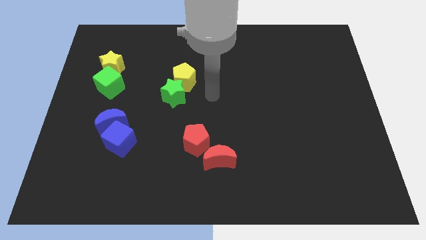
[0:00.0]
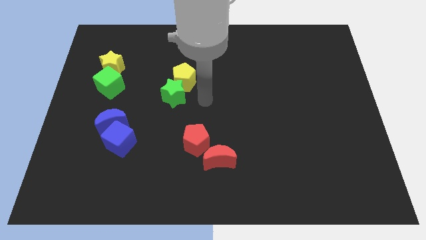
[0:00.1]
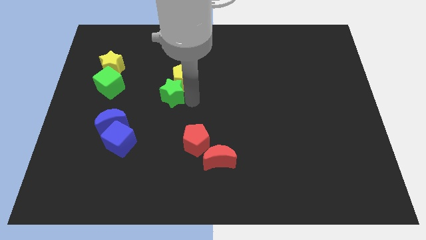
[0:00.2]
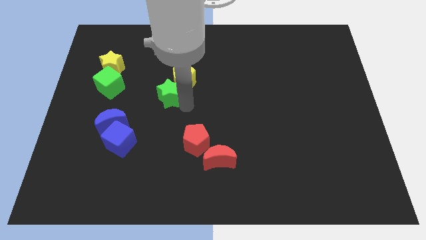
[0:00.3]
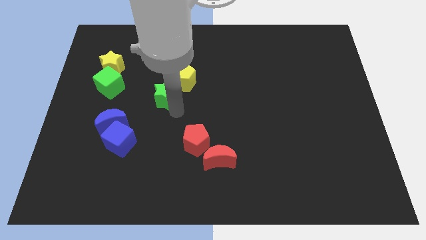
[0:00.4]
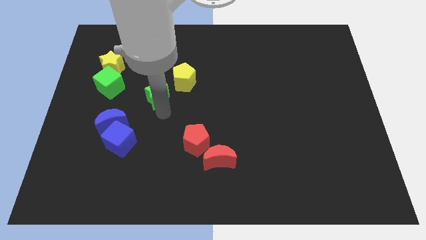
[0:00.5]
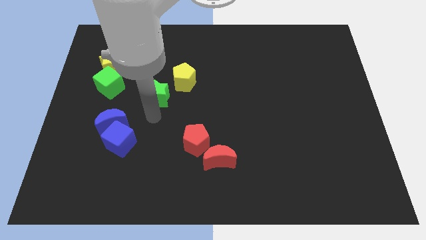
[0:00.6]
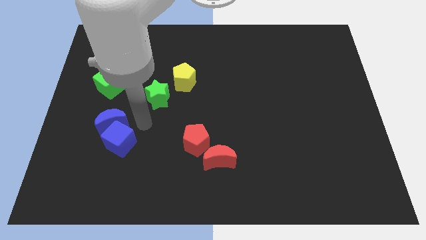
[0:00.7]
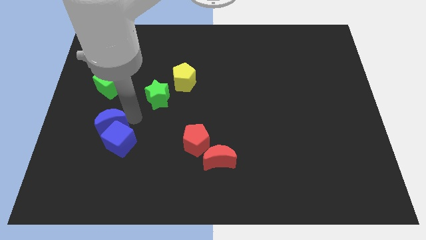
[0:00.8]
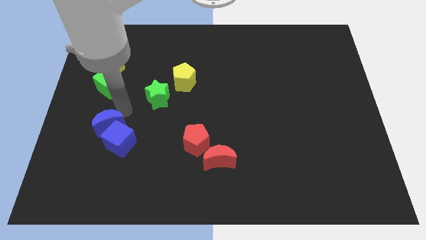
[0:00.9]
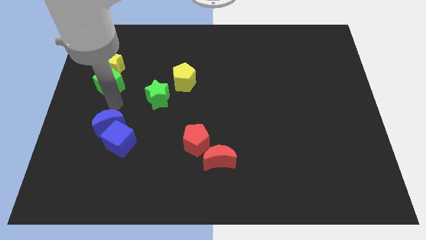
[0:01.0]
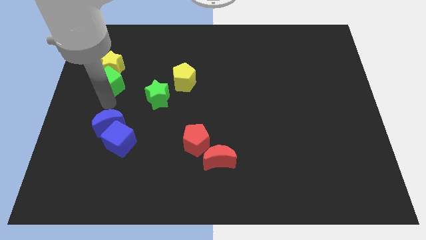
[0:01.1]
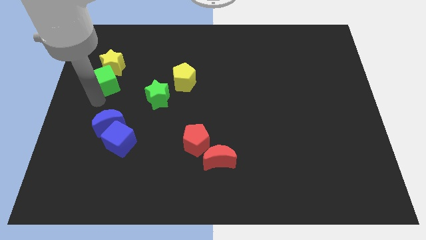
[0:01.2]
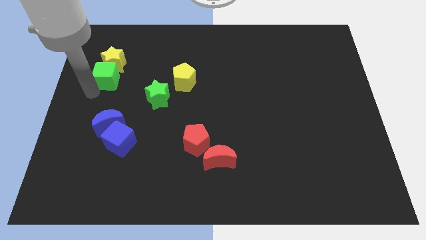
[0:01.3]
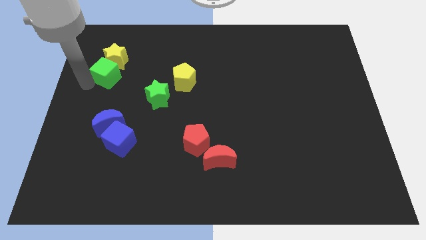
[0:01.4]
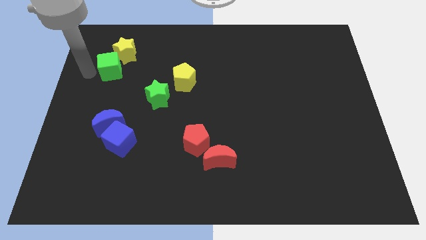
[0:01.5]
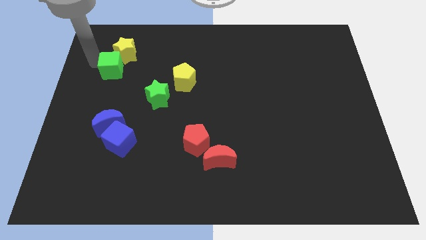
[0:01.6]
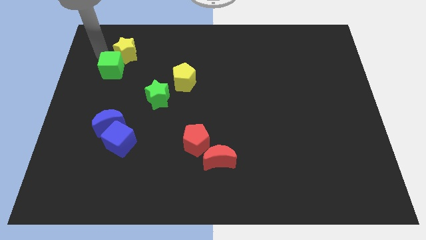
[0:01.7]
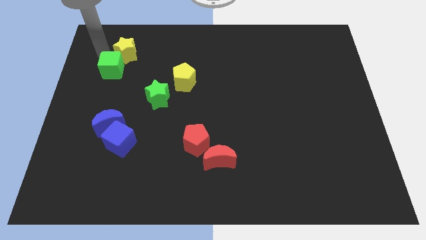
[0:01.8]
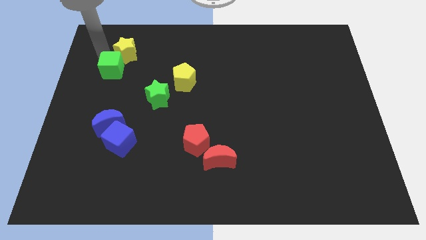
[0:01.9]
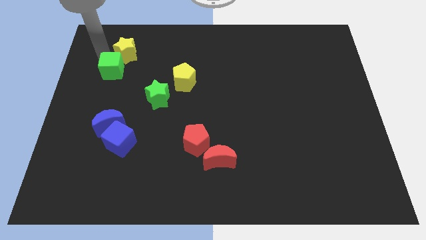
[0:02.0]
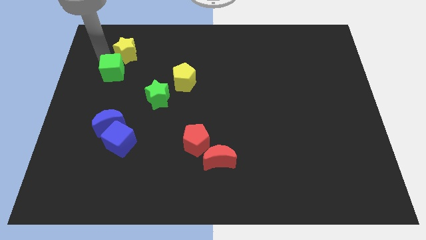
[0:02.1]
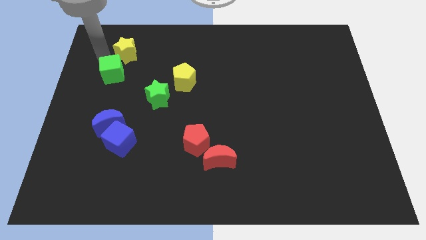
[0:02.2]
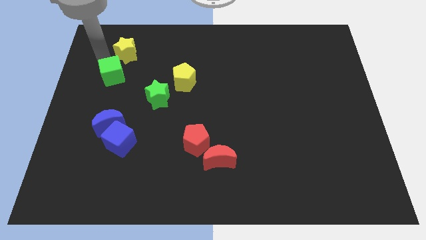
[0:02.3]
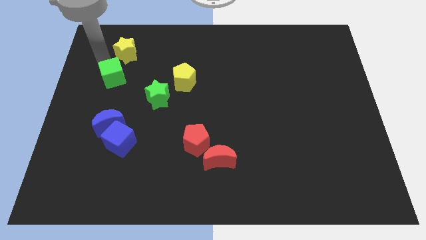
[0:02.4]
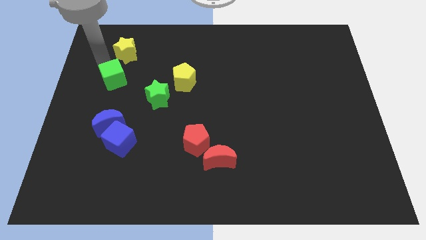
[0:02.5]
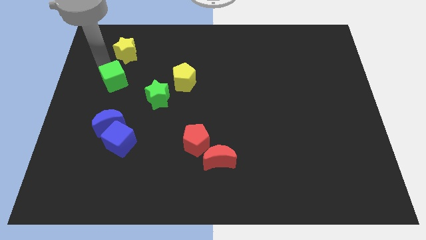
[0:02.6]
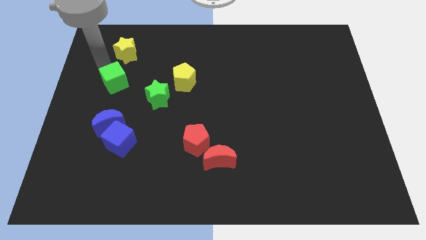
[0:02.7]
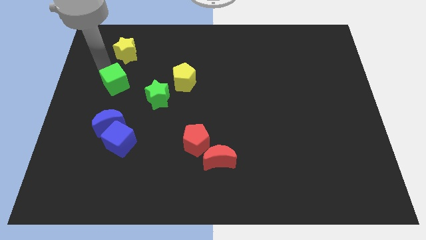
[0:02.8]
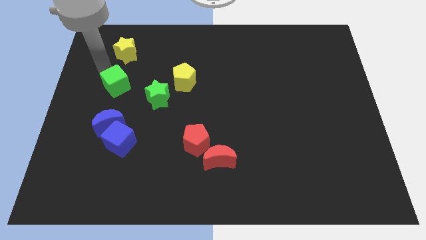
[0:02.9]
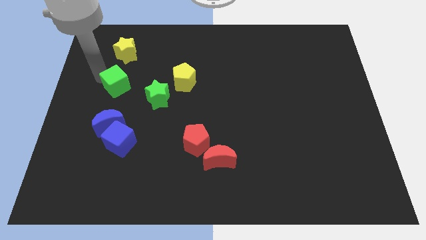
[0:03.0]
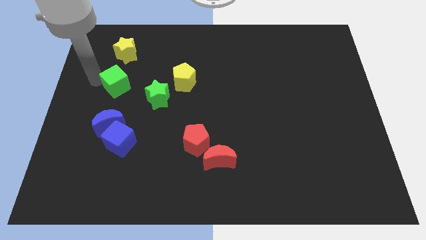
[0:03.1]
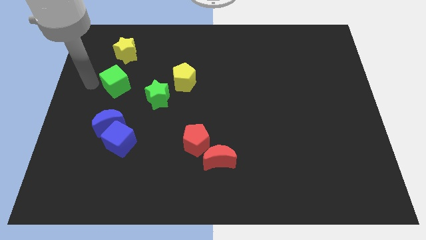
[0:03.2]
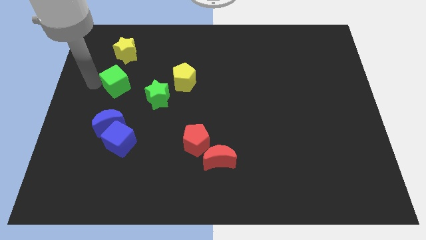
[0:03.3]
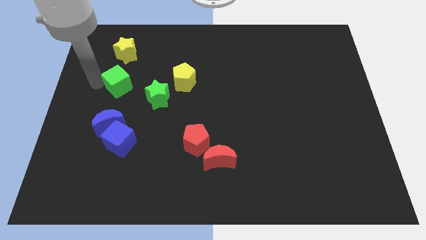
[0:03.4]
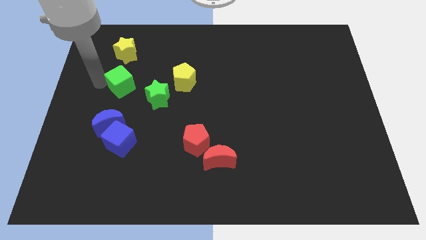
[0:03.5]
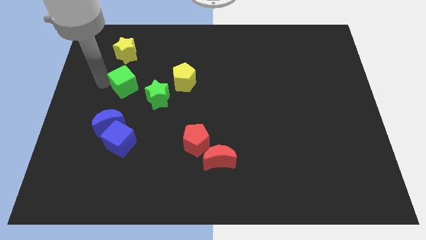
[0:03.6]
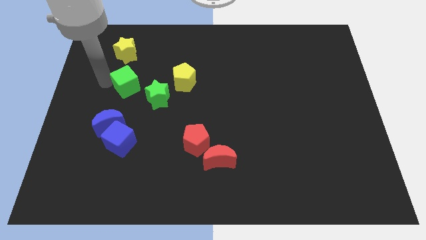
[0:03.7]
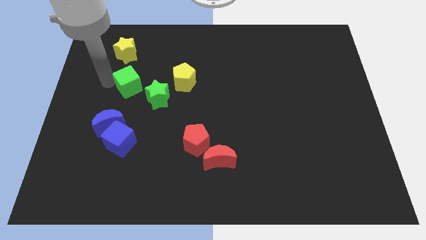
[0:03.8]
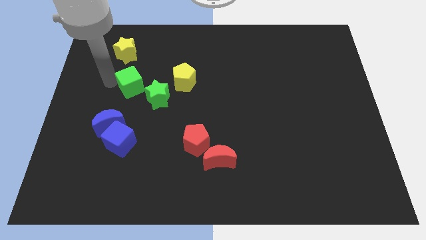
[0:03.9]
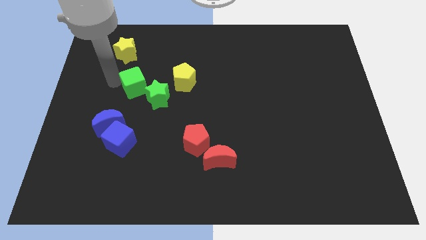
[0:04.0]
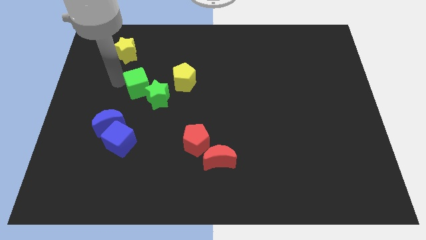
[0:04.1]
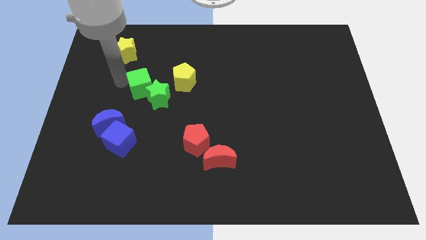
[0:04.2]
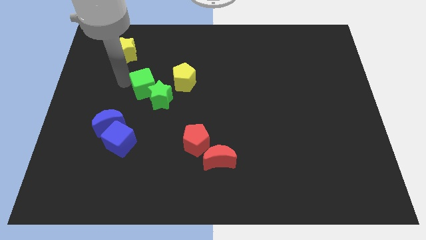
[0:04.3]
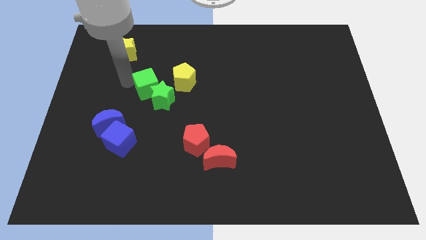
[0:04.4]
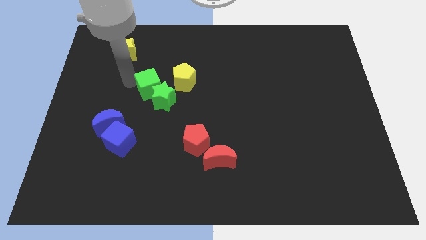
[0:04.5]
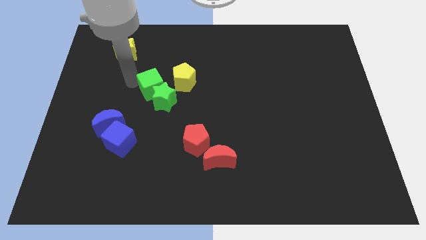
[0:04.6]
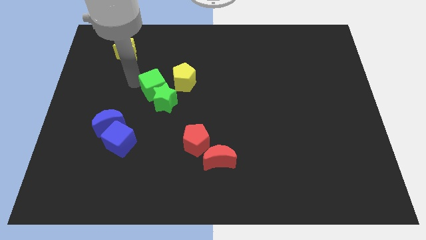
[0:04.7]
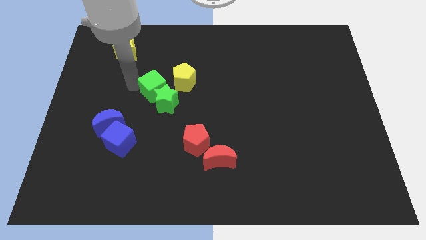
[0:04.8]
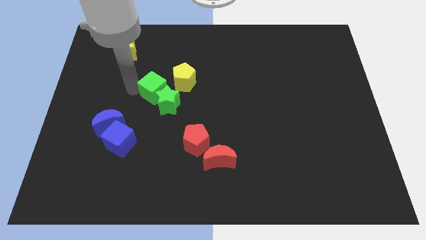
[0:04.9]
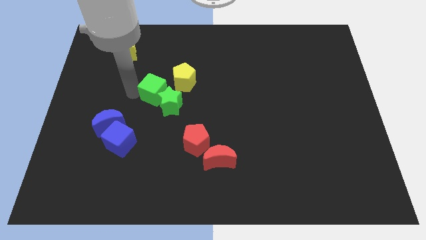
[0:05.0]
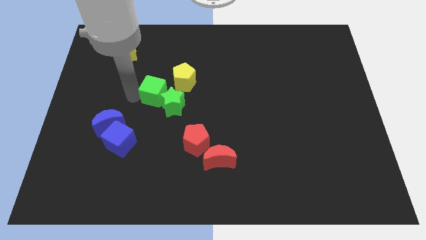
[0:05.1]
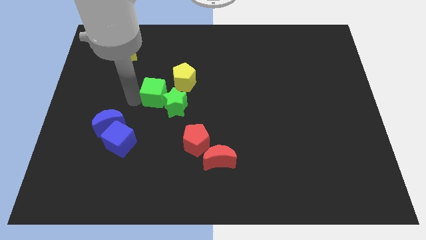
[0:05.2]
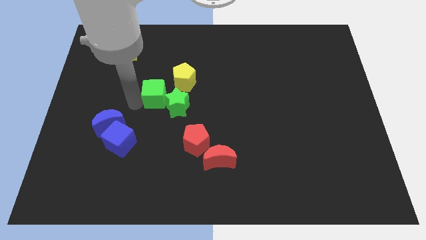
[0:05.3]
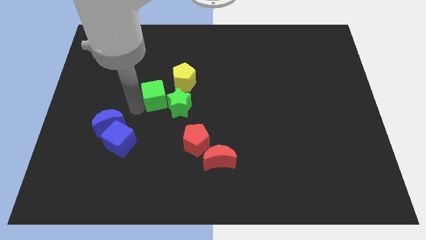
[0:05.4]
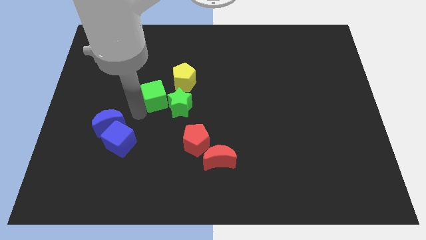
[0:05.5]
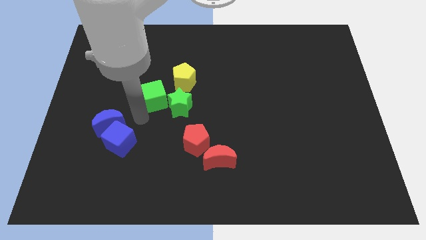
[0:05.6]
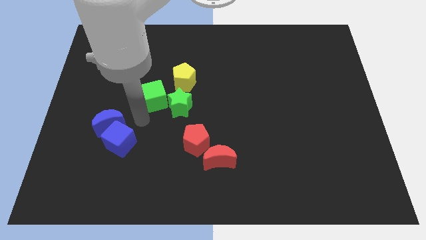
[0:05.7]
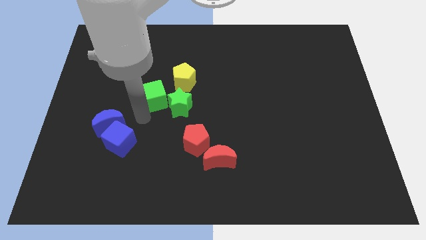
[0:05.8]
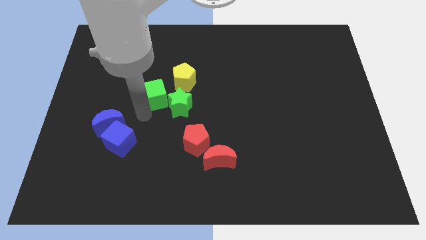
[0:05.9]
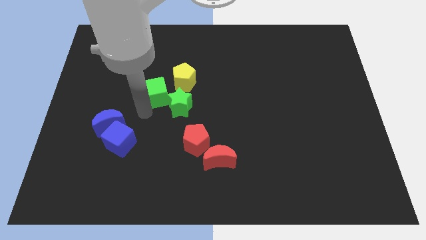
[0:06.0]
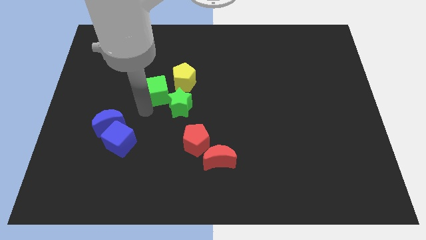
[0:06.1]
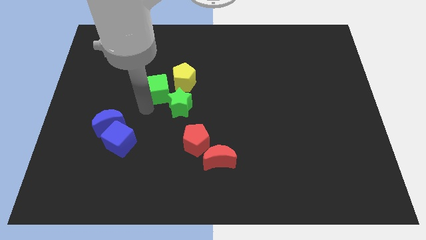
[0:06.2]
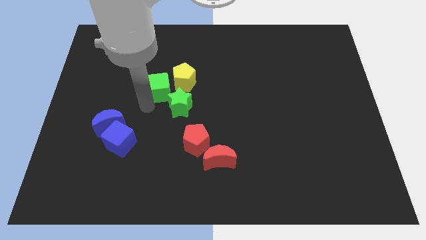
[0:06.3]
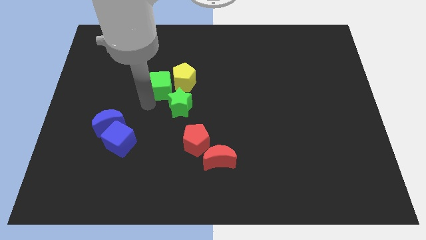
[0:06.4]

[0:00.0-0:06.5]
slide the green cube close to the yellow pentagon

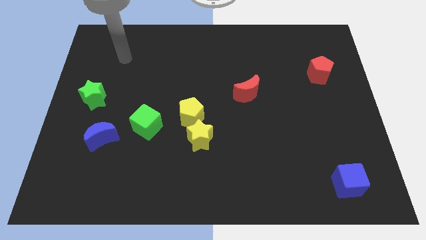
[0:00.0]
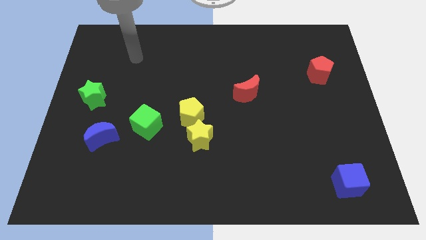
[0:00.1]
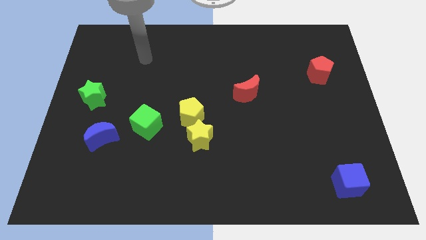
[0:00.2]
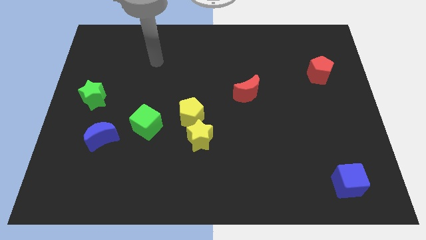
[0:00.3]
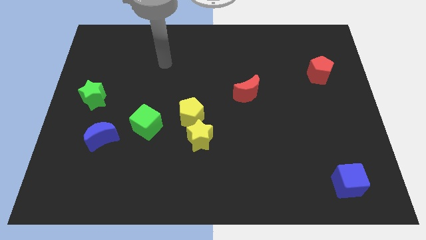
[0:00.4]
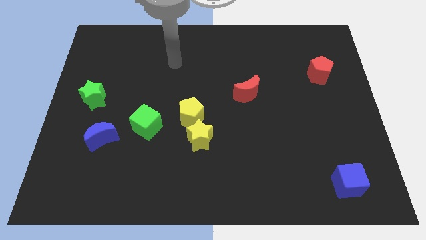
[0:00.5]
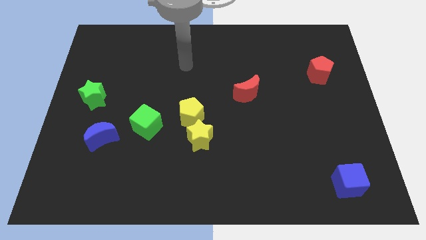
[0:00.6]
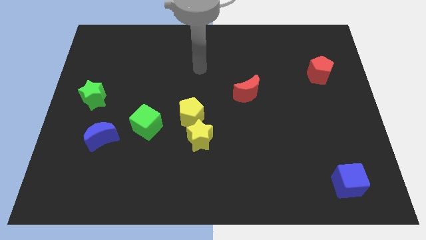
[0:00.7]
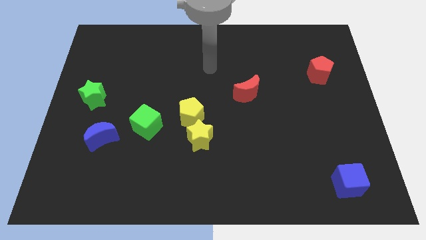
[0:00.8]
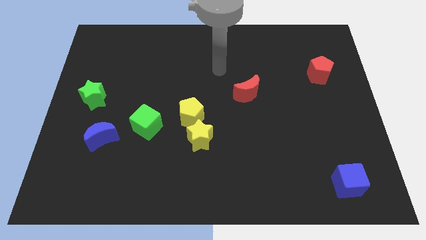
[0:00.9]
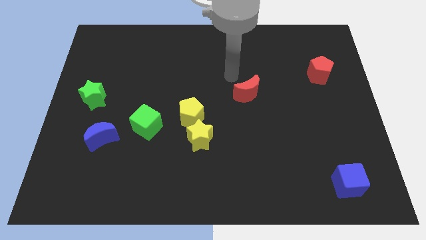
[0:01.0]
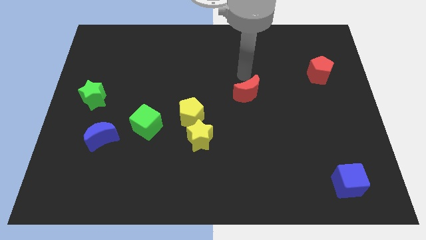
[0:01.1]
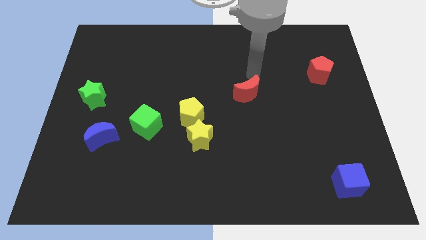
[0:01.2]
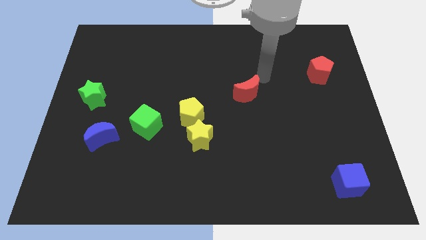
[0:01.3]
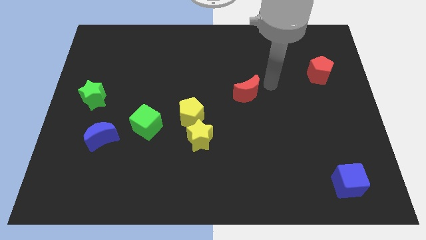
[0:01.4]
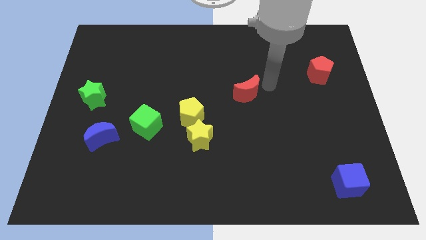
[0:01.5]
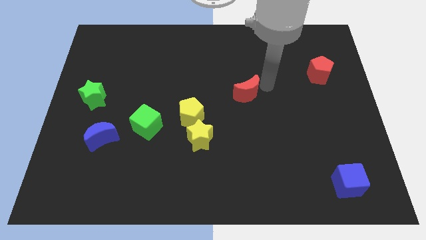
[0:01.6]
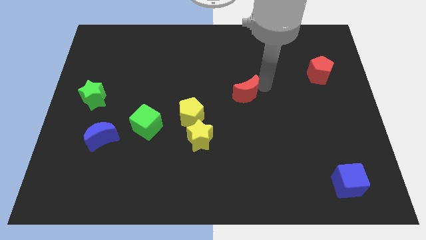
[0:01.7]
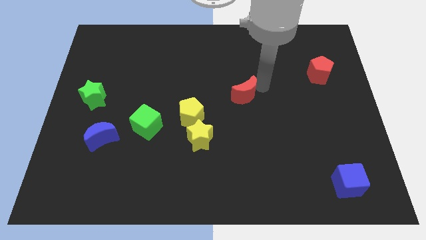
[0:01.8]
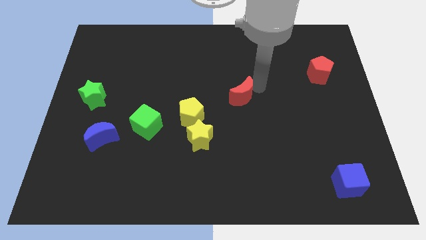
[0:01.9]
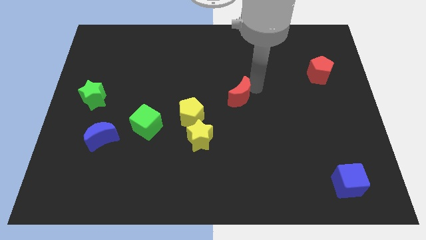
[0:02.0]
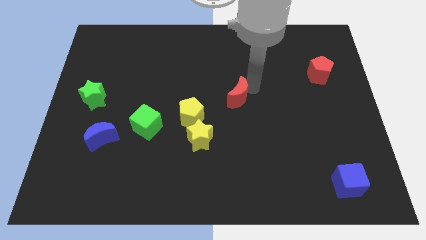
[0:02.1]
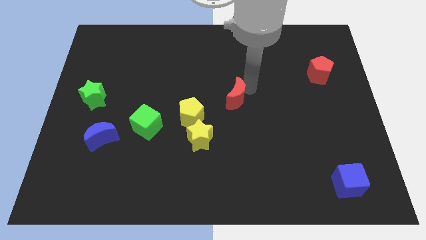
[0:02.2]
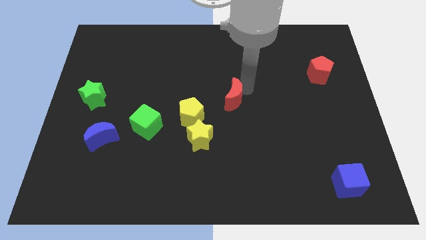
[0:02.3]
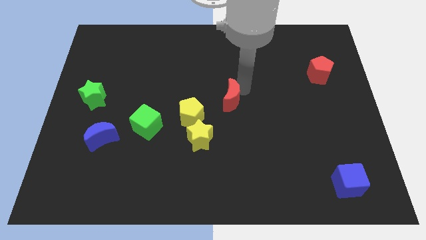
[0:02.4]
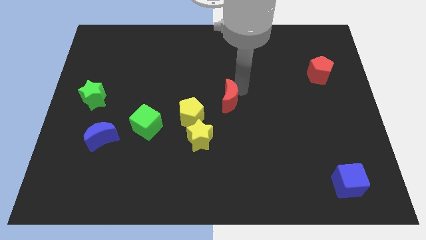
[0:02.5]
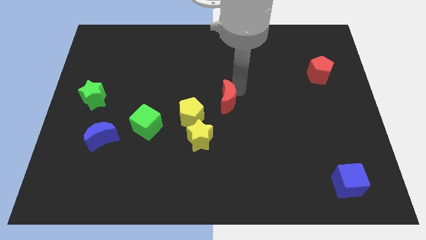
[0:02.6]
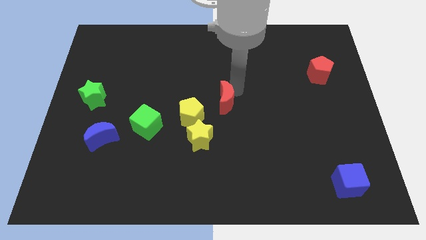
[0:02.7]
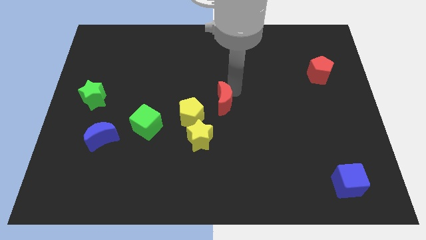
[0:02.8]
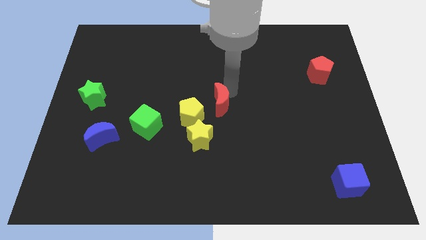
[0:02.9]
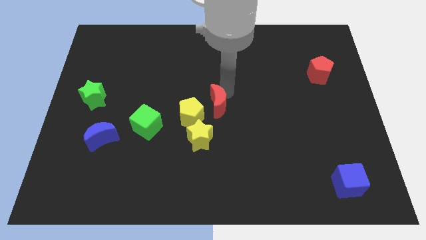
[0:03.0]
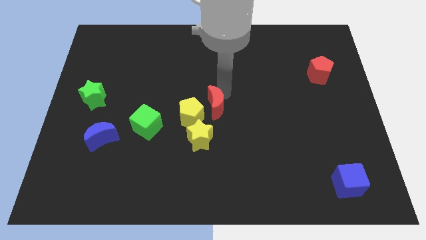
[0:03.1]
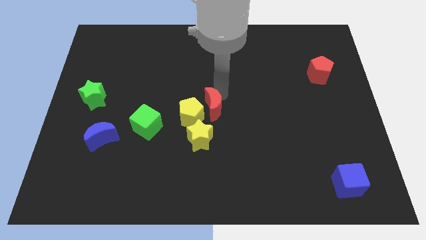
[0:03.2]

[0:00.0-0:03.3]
move the red moon next to the yellow pentagon
